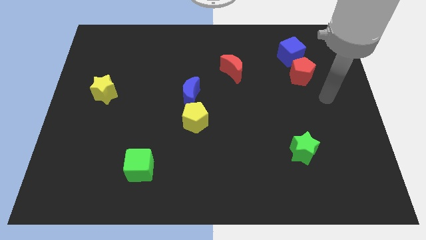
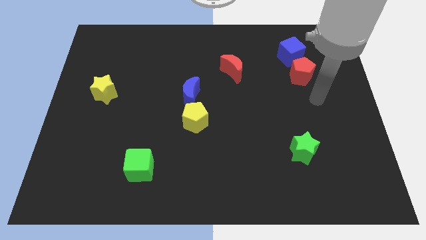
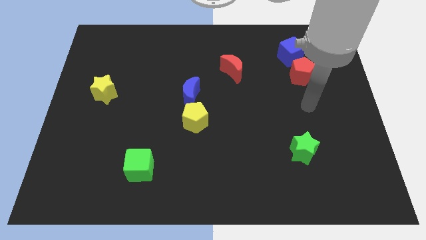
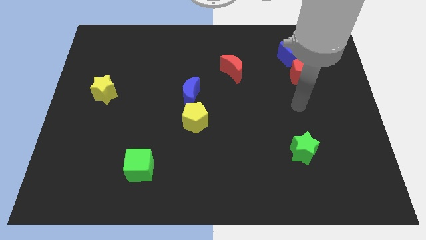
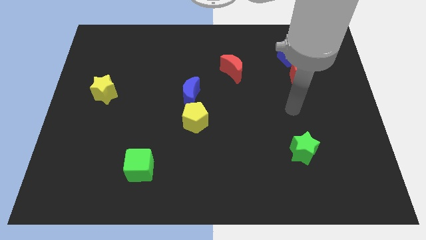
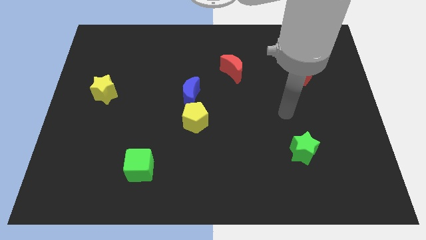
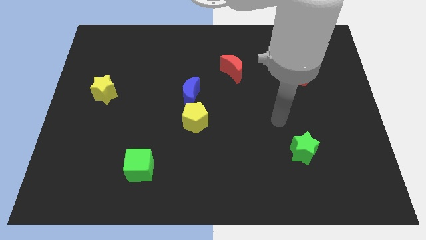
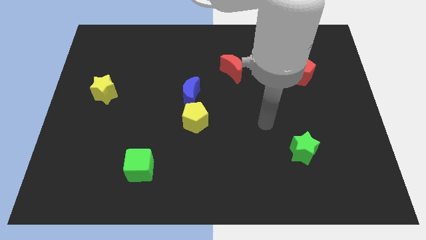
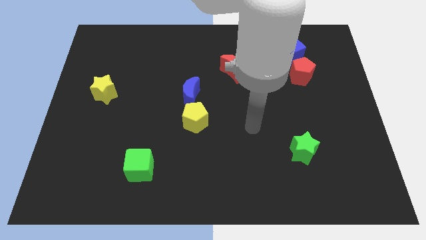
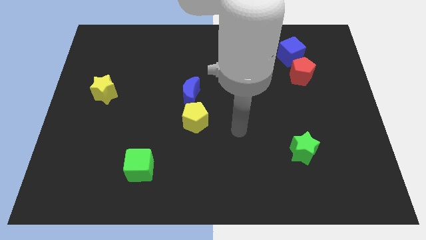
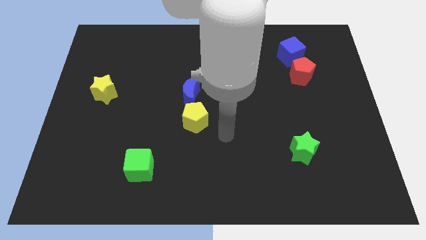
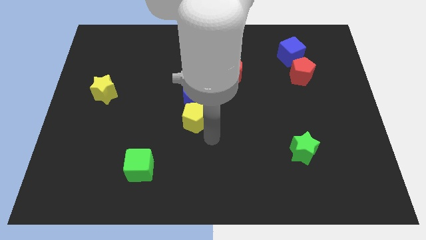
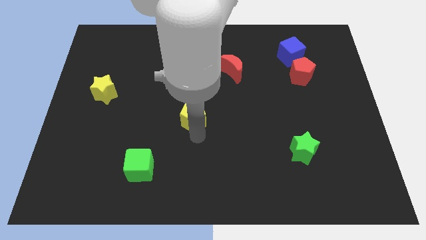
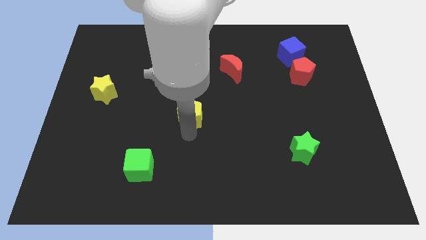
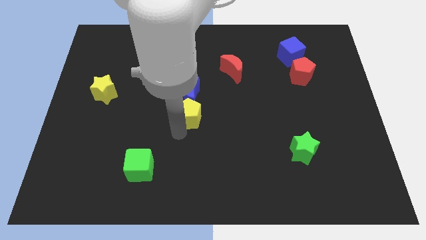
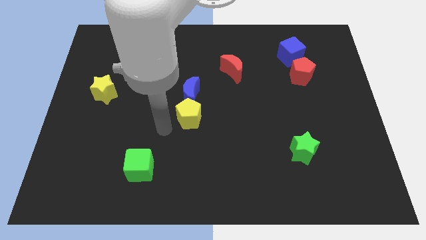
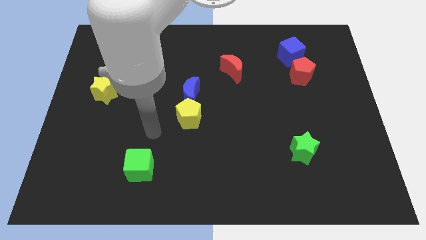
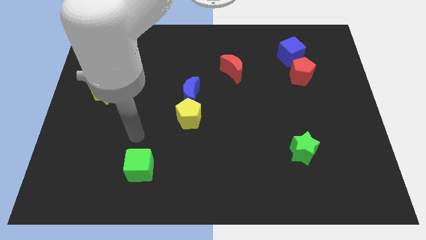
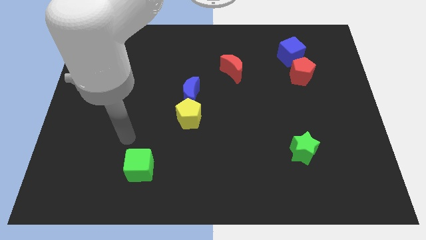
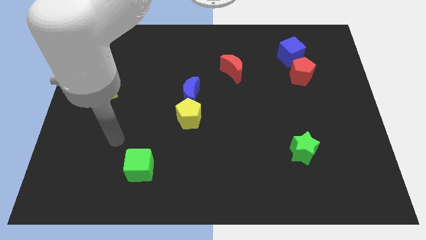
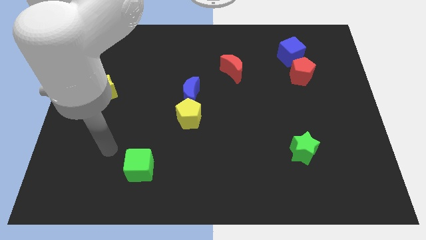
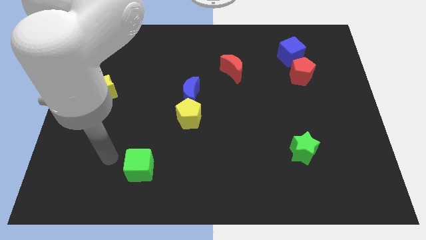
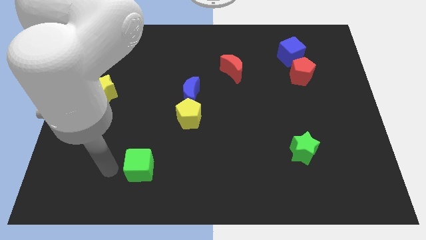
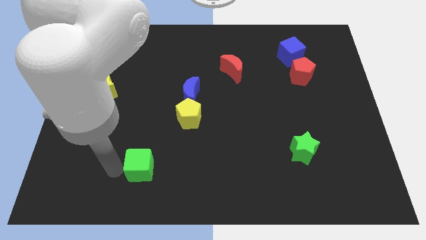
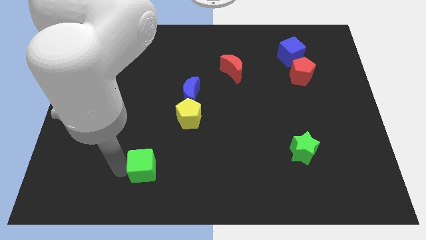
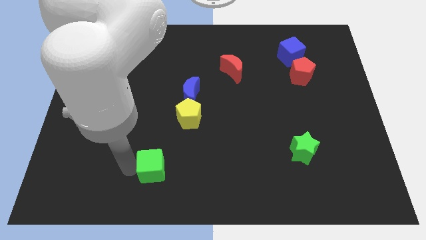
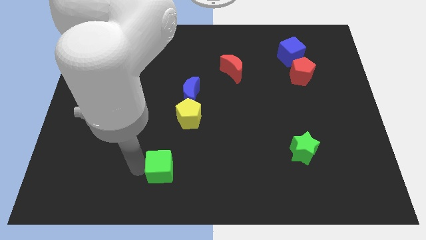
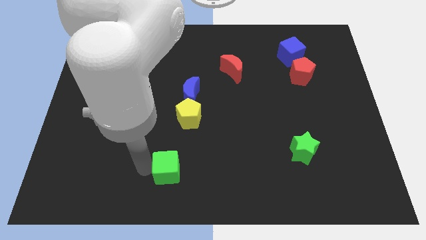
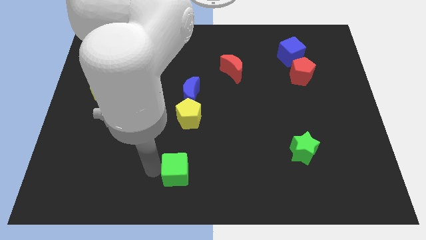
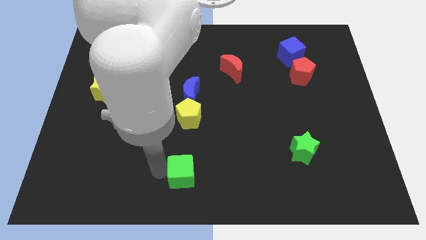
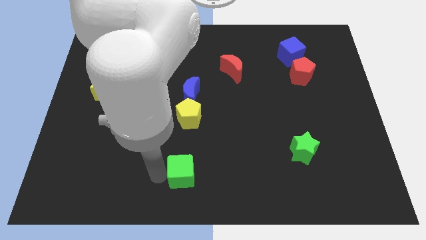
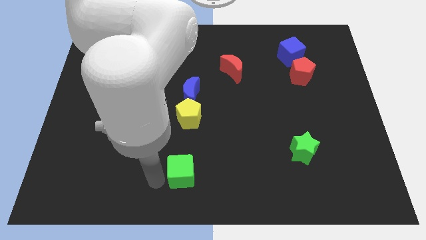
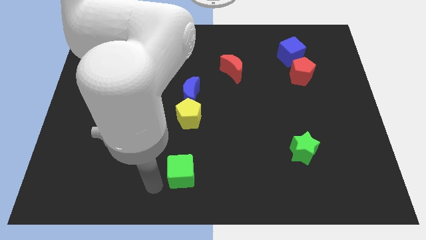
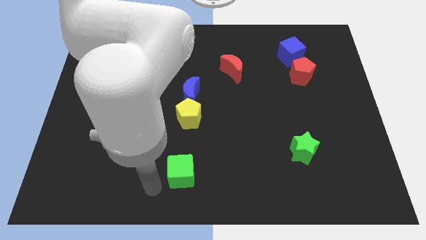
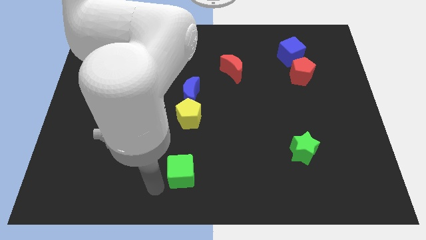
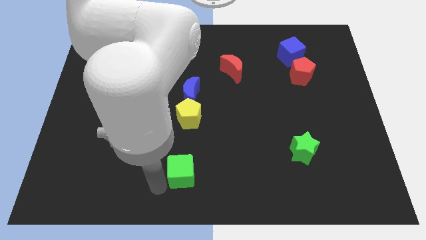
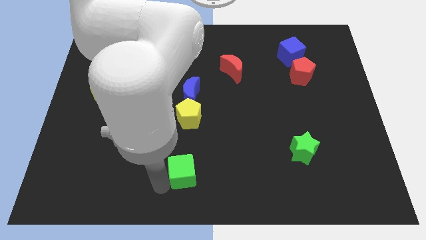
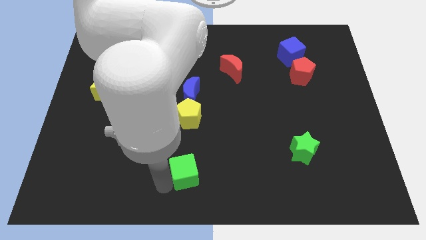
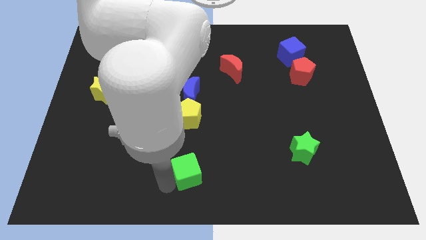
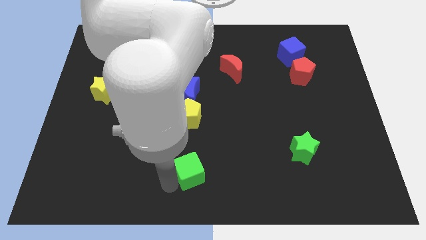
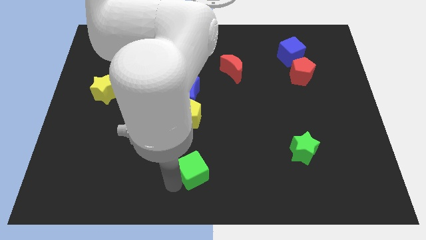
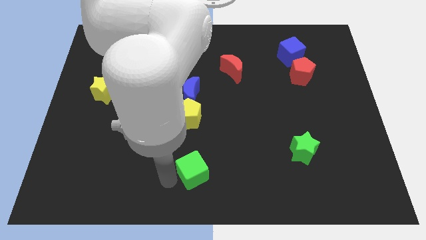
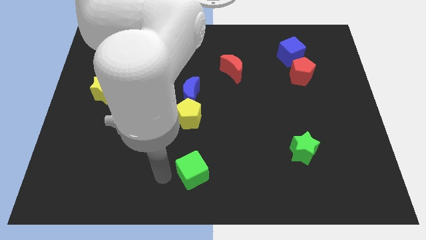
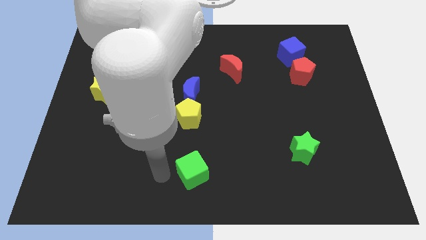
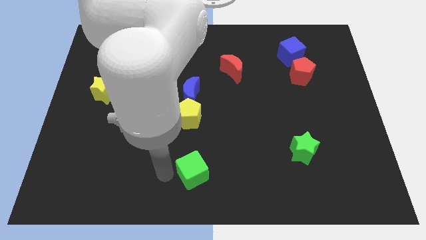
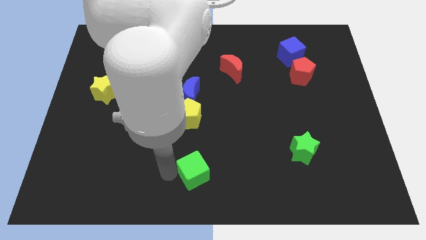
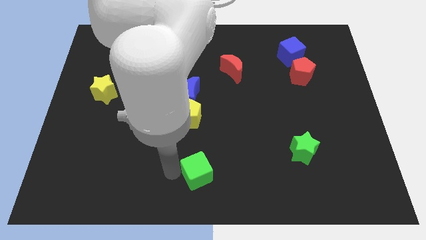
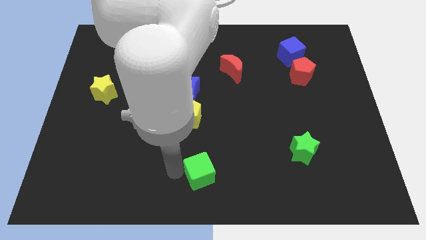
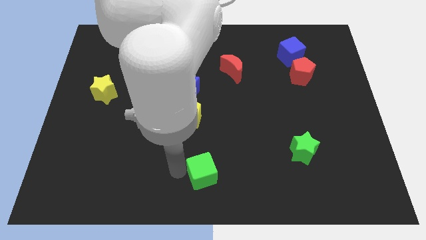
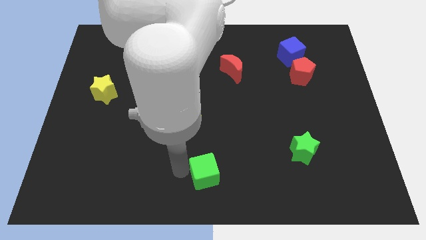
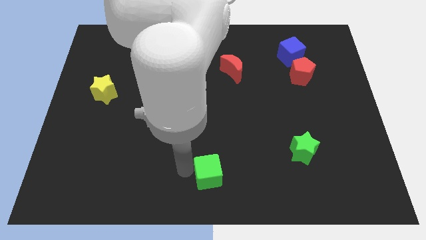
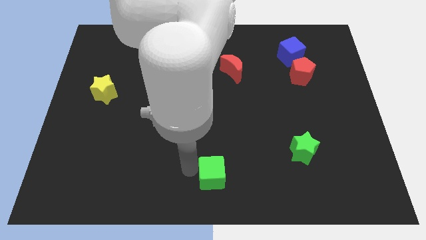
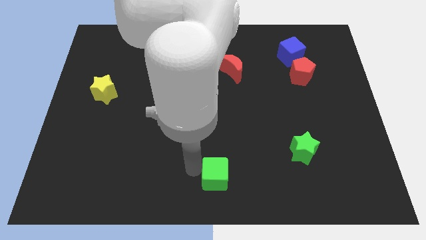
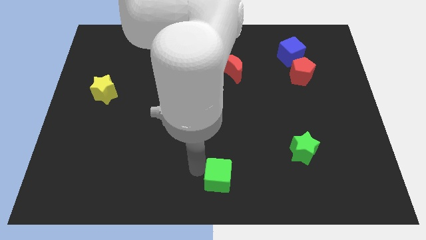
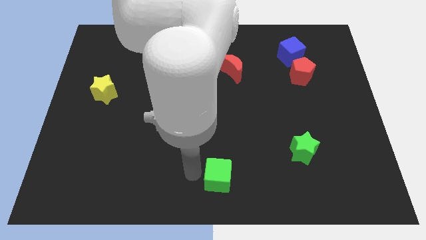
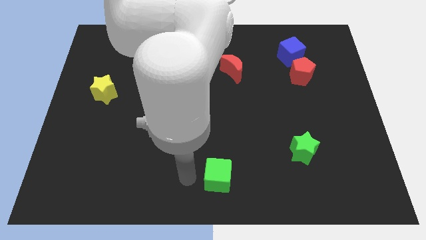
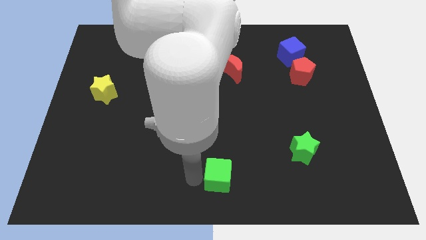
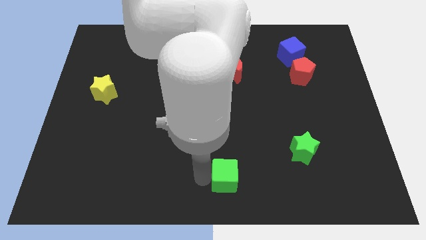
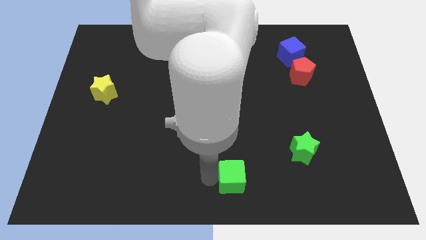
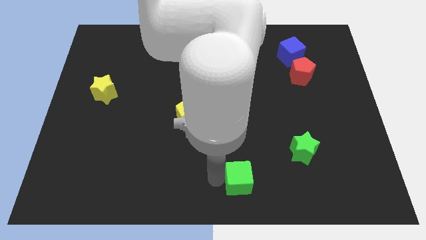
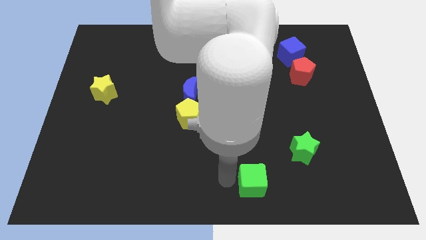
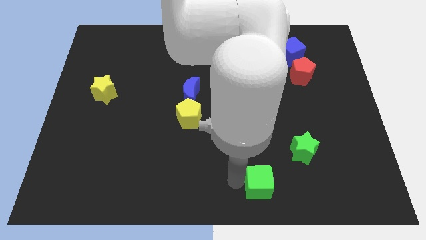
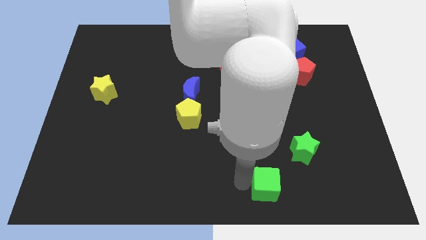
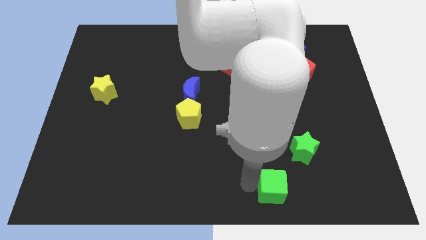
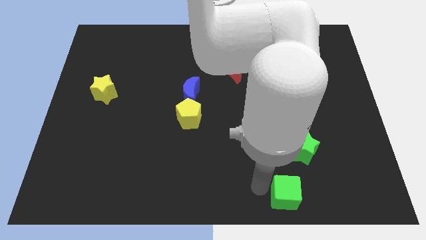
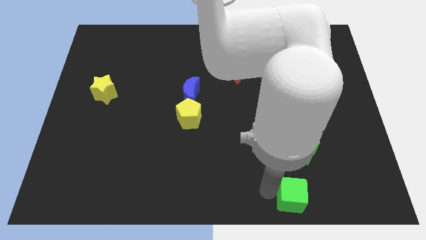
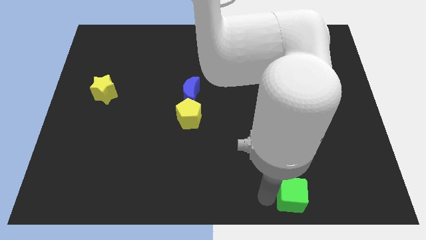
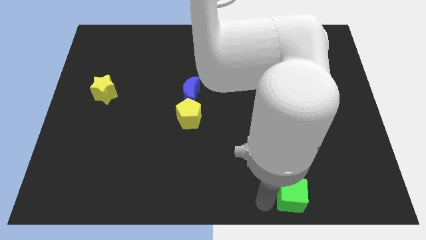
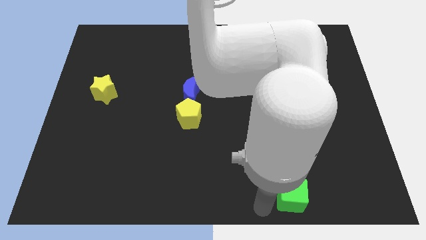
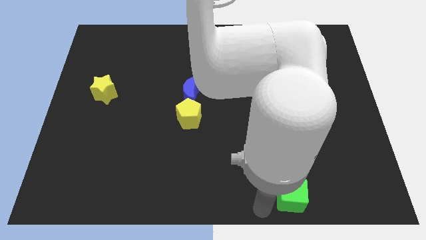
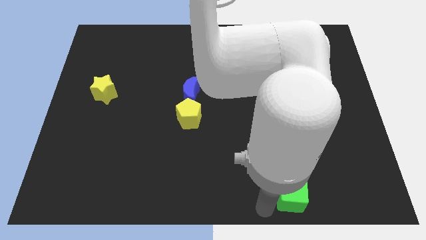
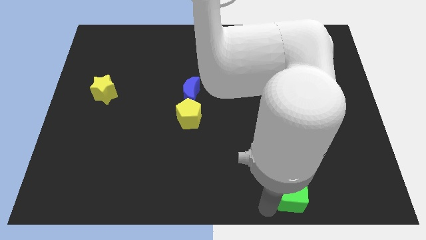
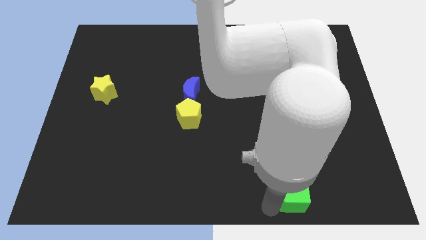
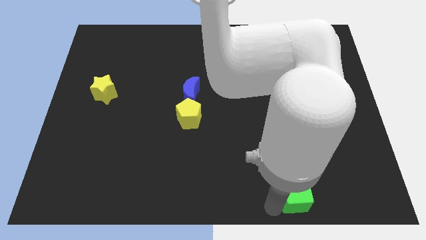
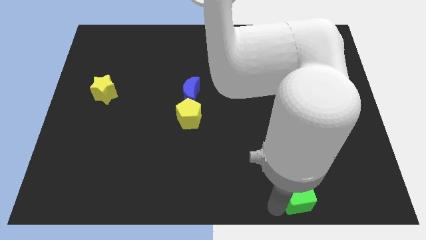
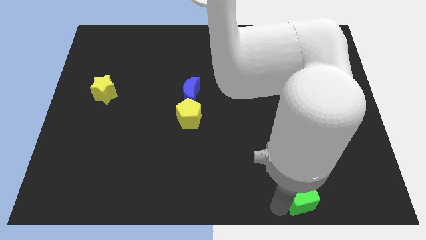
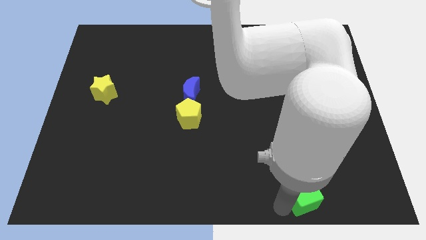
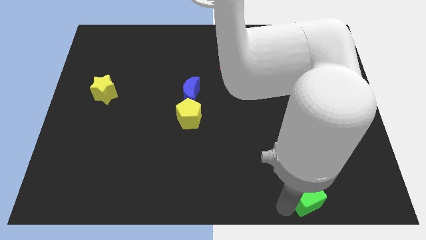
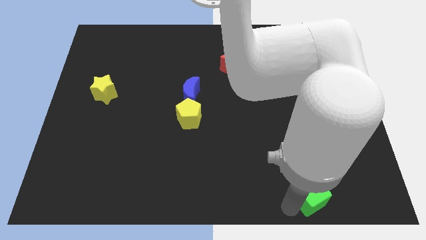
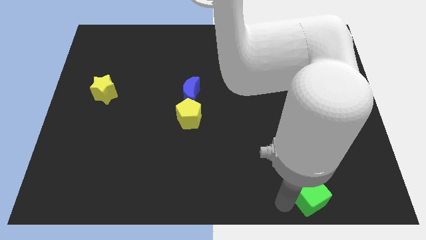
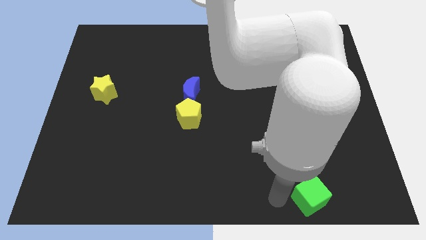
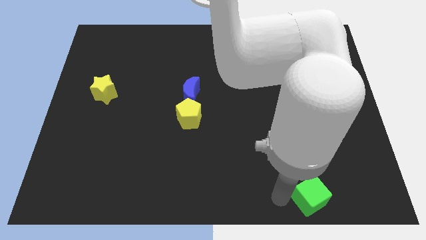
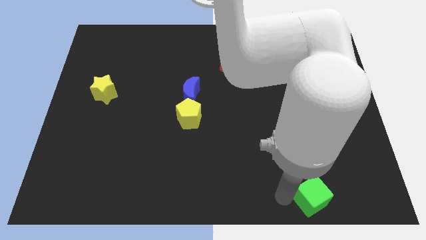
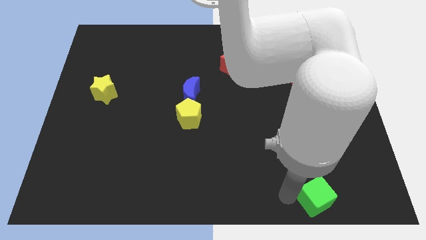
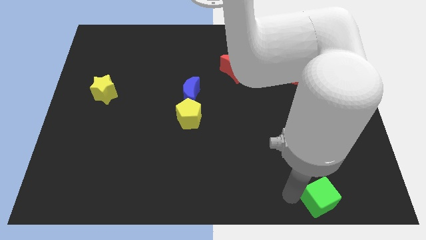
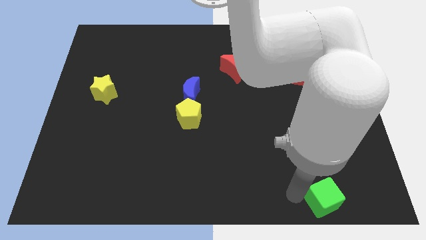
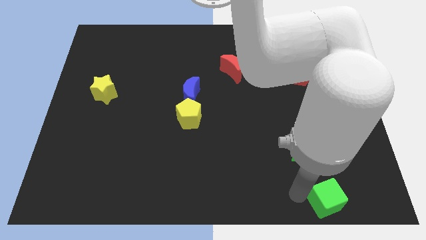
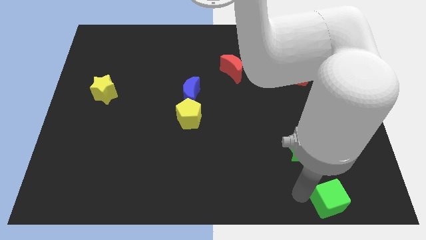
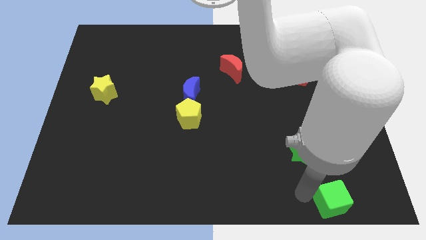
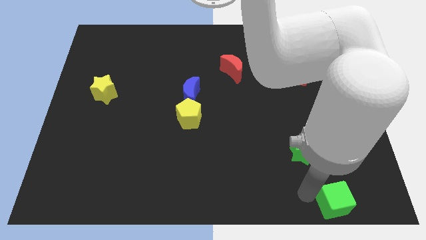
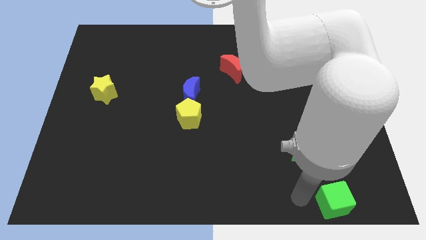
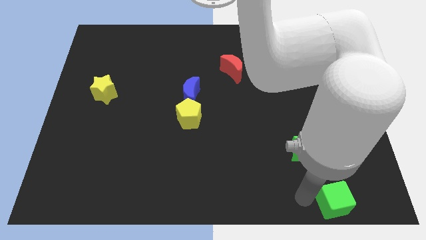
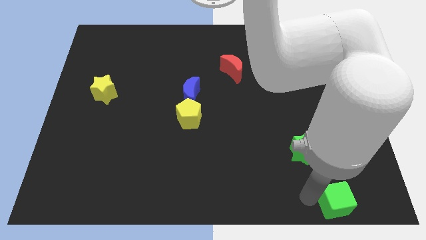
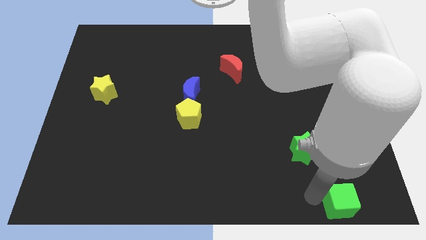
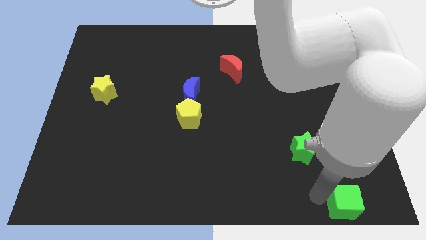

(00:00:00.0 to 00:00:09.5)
slide the green cube to the bottom right corner
